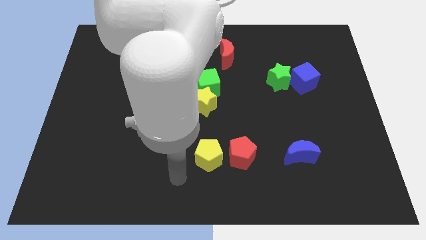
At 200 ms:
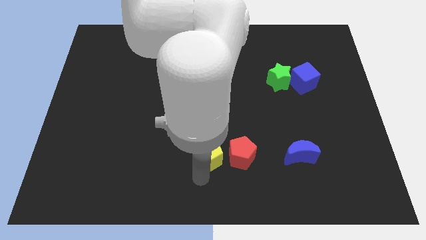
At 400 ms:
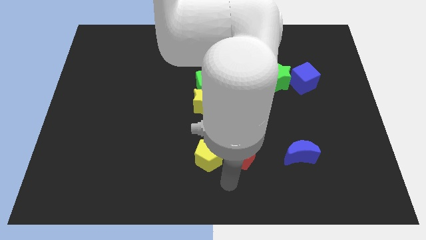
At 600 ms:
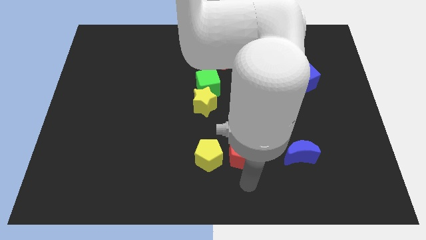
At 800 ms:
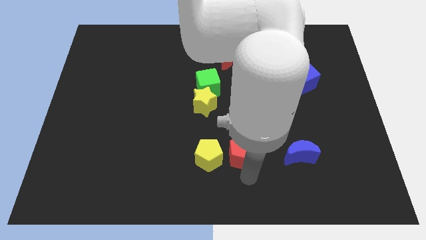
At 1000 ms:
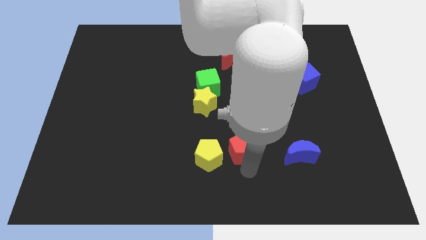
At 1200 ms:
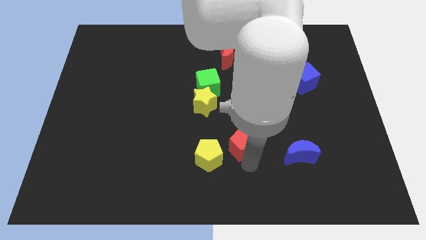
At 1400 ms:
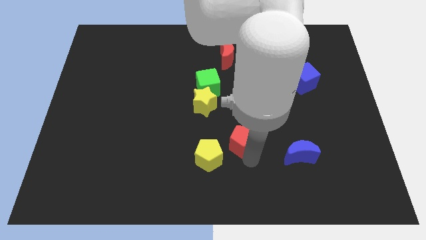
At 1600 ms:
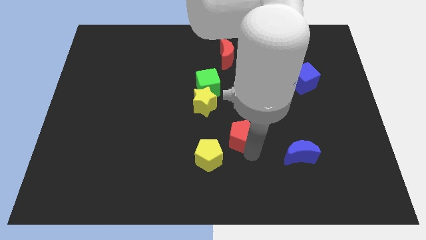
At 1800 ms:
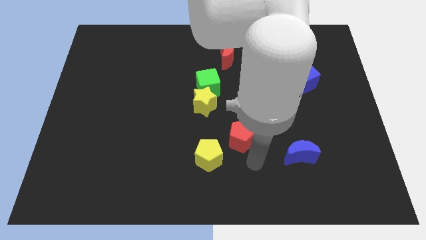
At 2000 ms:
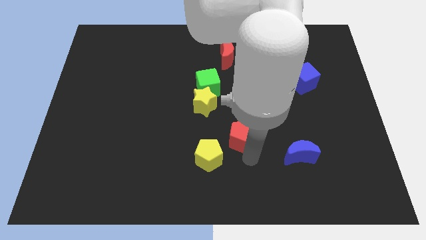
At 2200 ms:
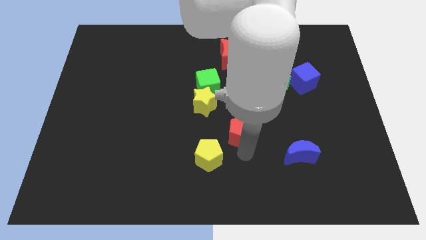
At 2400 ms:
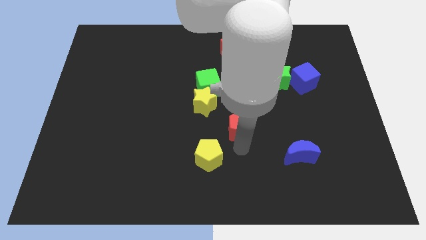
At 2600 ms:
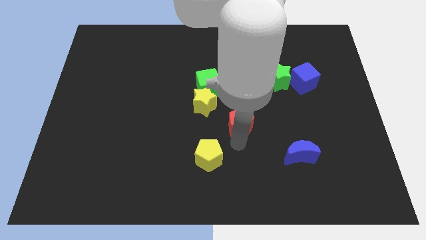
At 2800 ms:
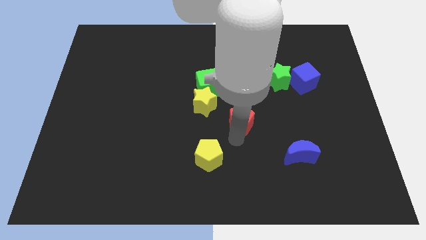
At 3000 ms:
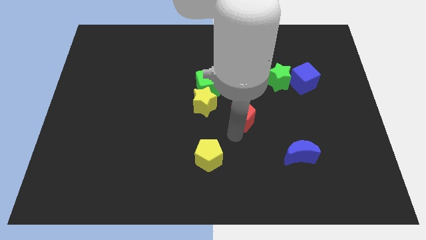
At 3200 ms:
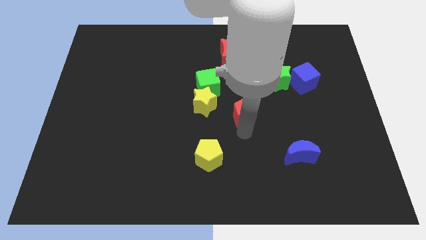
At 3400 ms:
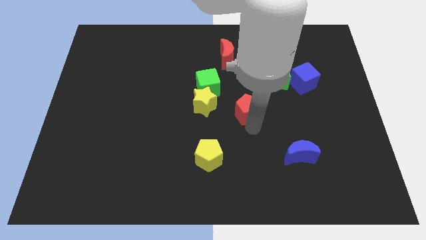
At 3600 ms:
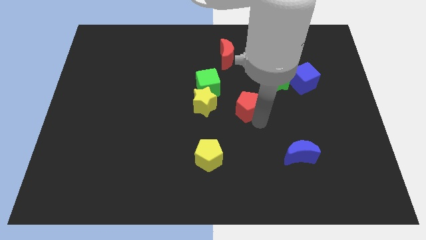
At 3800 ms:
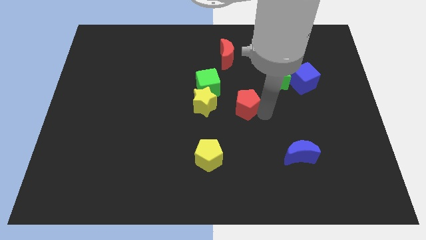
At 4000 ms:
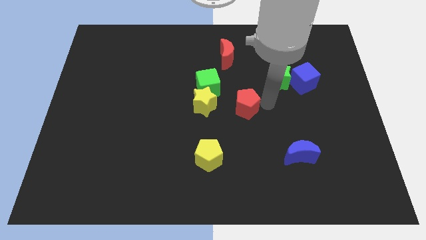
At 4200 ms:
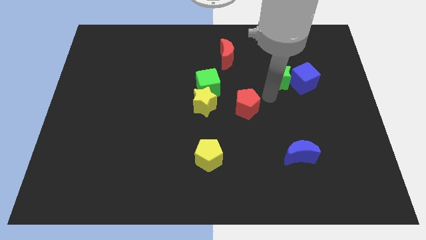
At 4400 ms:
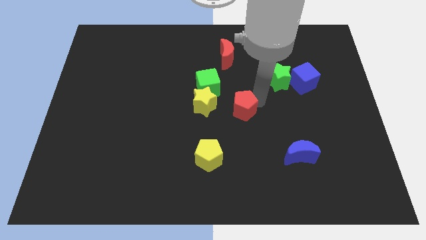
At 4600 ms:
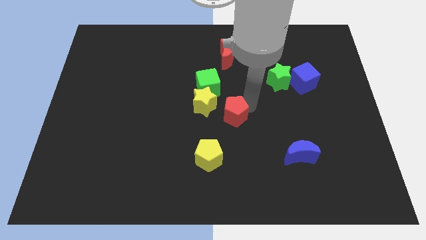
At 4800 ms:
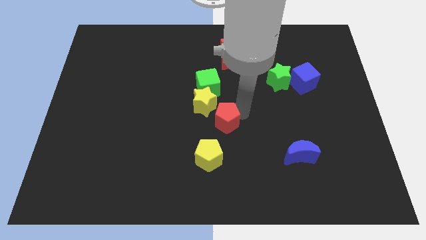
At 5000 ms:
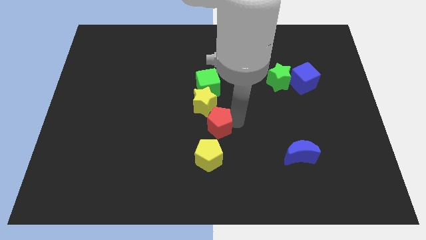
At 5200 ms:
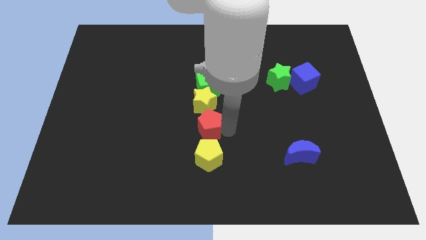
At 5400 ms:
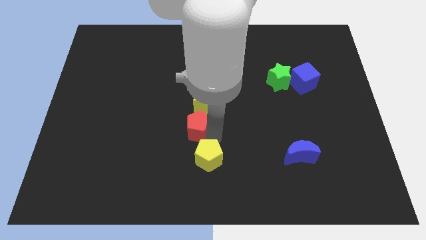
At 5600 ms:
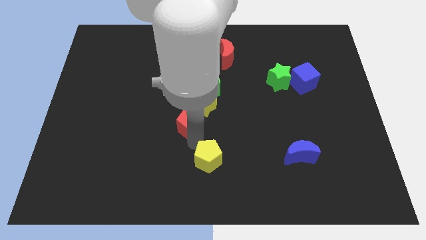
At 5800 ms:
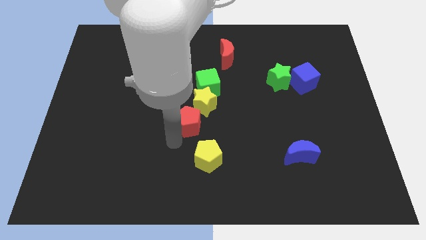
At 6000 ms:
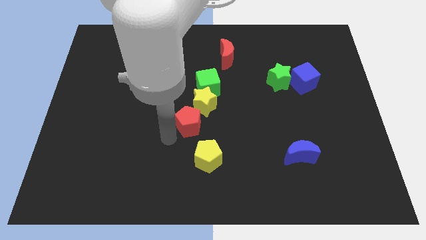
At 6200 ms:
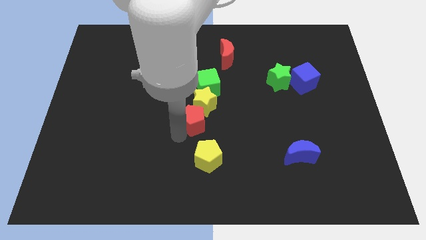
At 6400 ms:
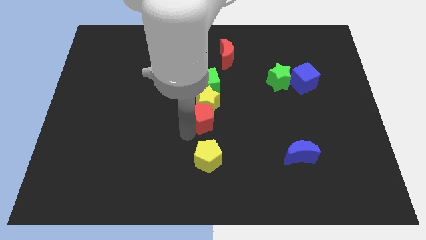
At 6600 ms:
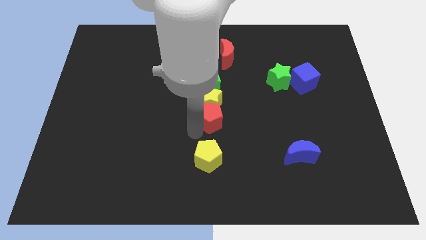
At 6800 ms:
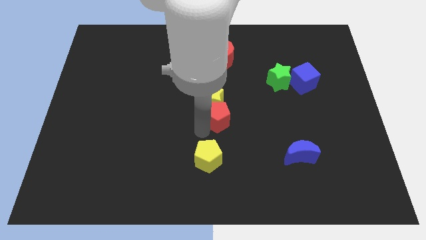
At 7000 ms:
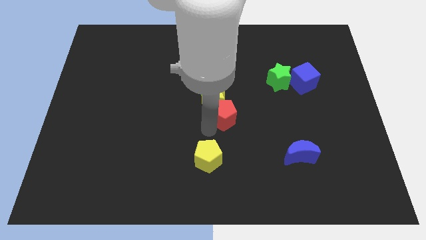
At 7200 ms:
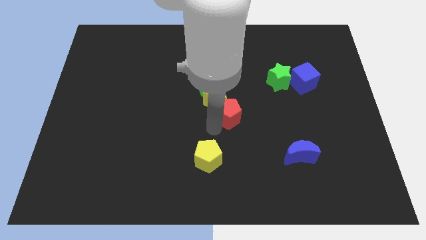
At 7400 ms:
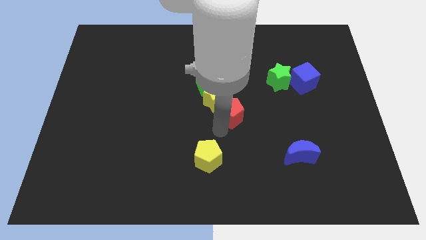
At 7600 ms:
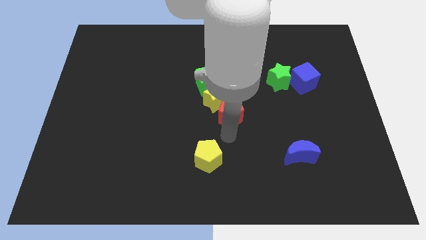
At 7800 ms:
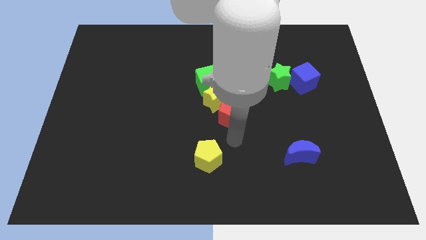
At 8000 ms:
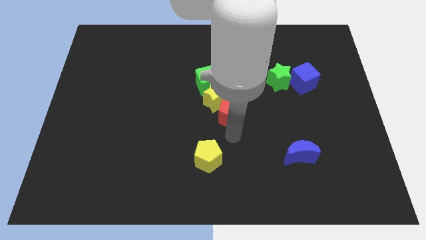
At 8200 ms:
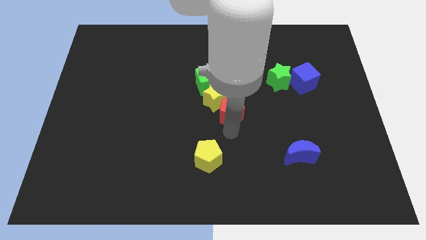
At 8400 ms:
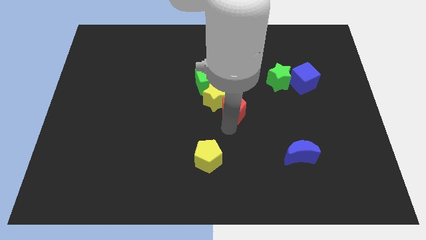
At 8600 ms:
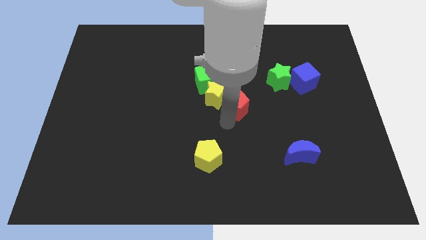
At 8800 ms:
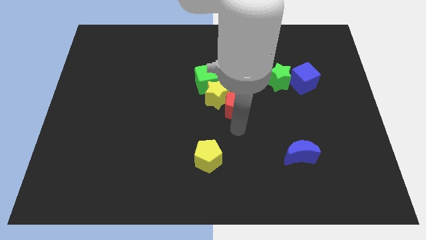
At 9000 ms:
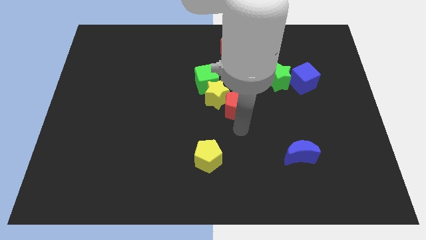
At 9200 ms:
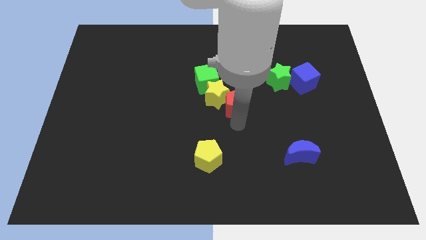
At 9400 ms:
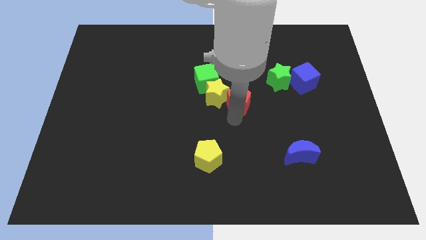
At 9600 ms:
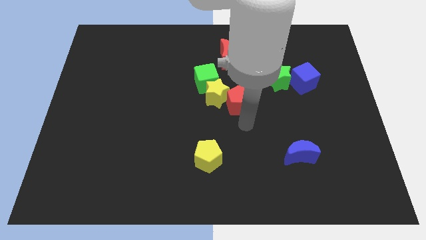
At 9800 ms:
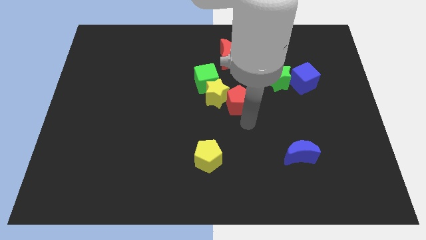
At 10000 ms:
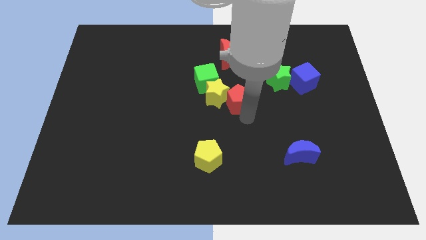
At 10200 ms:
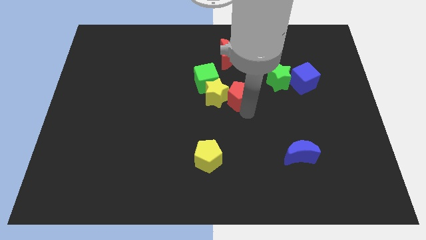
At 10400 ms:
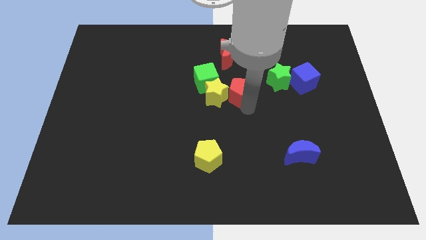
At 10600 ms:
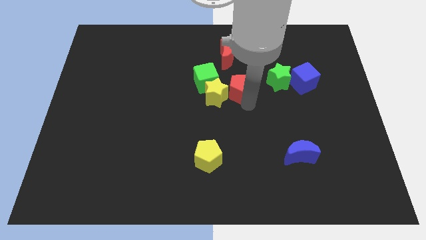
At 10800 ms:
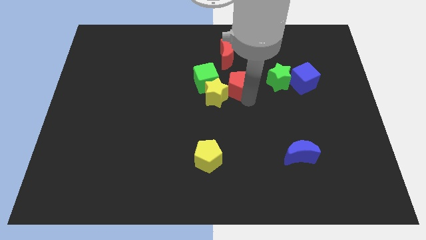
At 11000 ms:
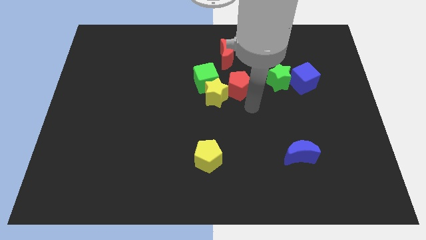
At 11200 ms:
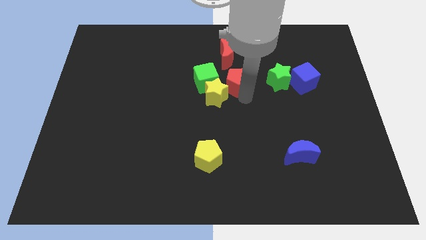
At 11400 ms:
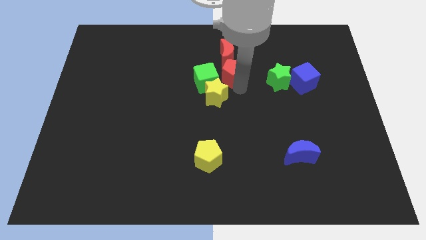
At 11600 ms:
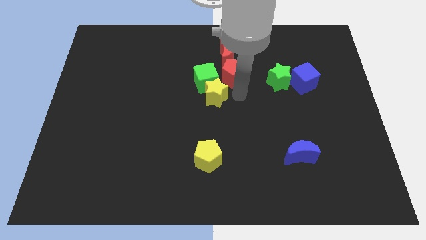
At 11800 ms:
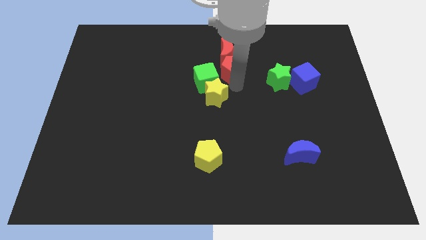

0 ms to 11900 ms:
put the red pentagon towards the red moon
